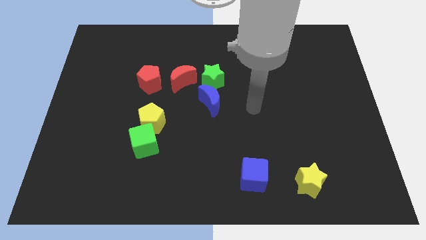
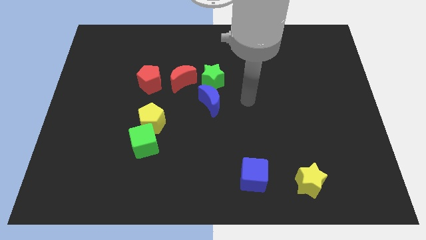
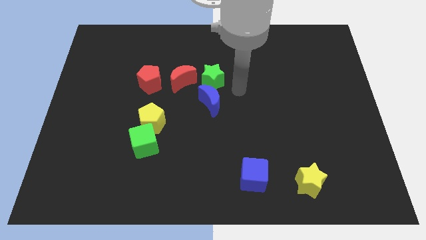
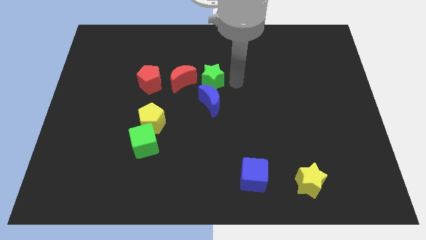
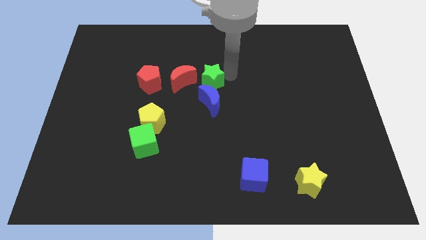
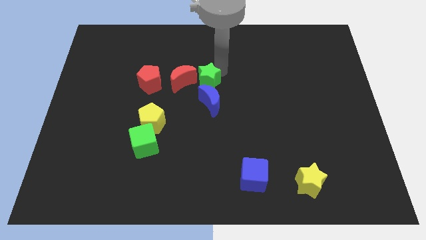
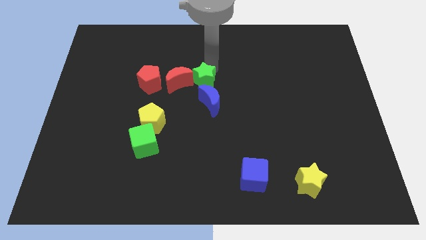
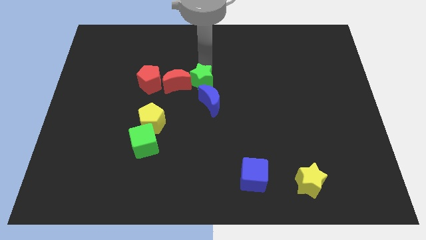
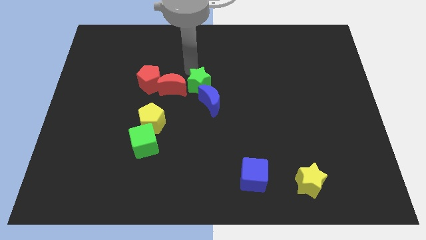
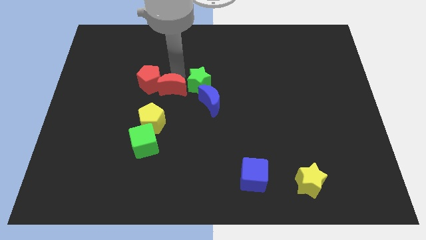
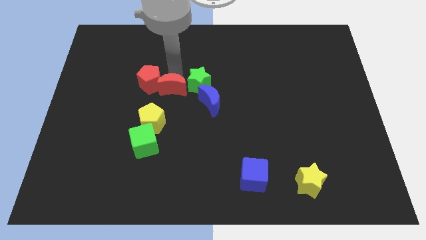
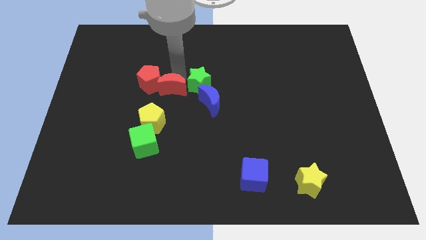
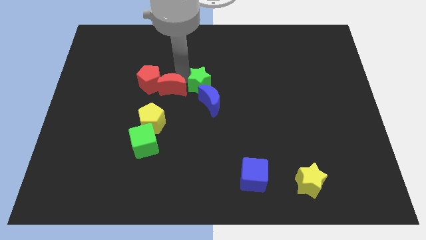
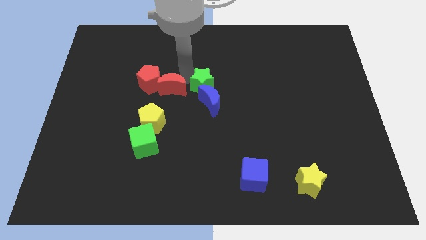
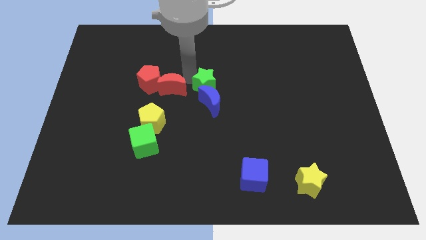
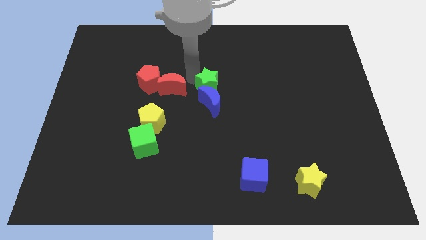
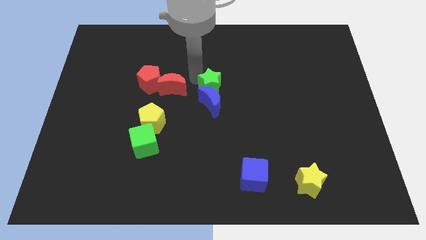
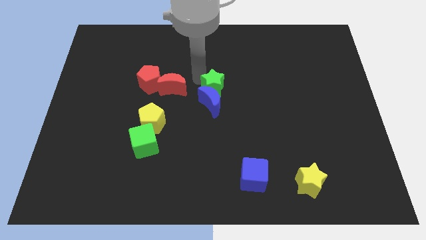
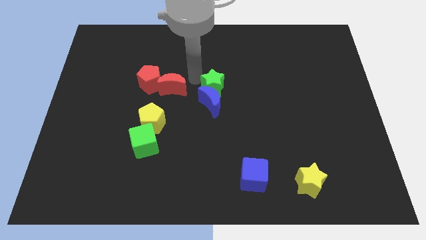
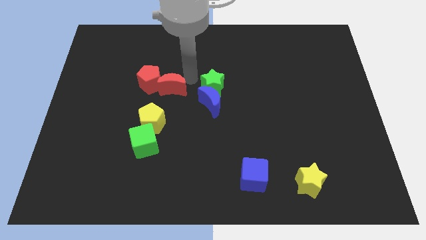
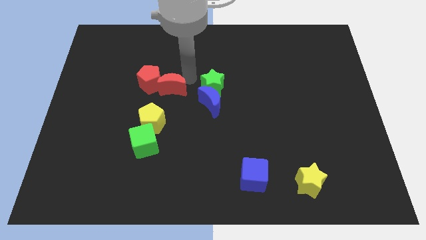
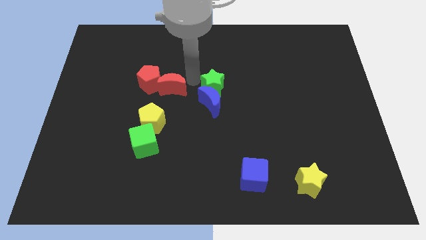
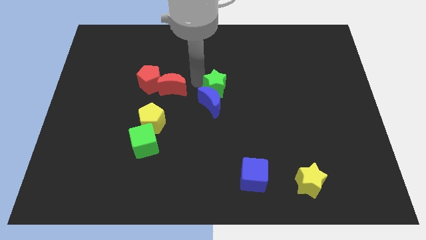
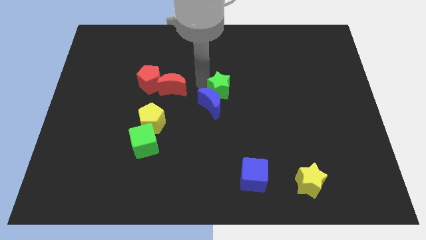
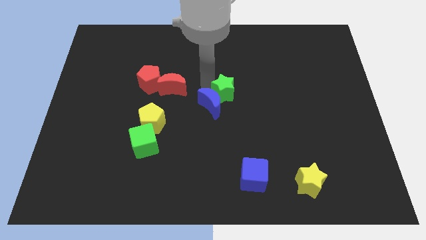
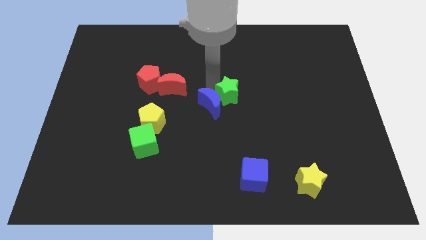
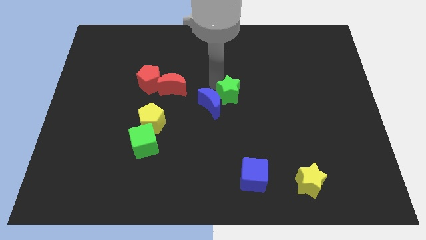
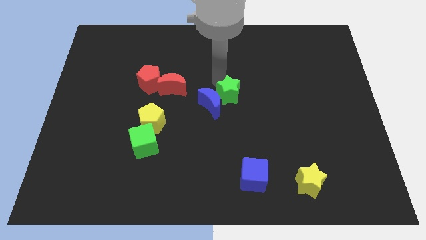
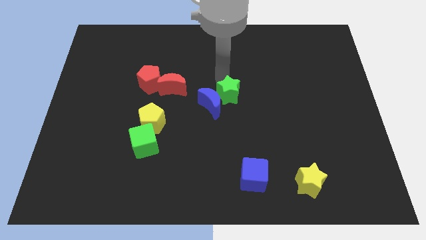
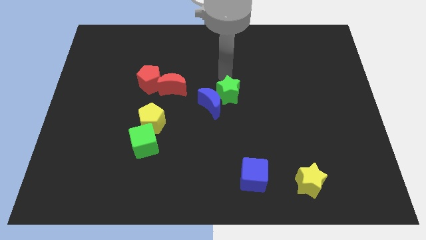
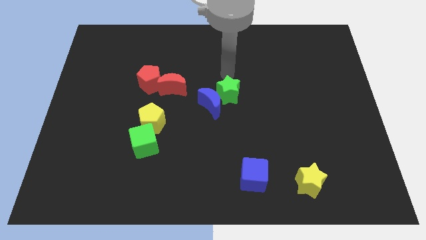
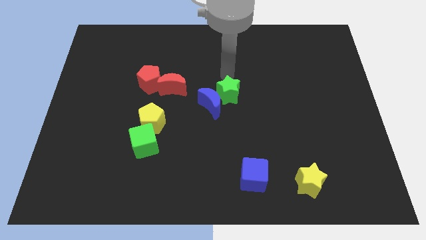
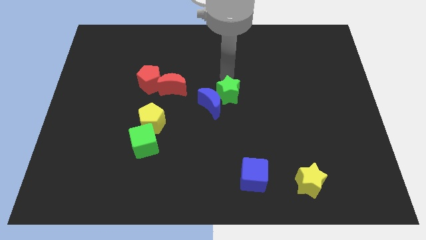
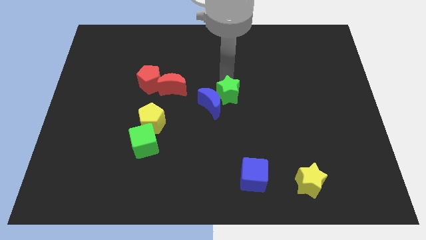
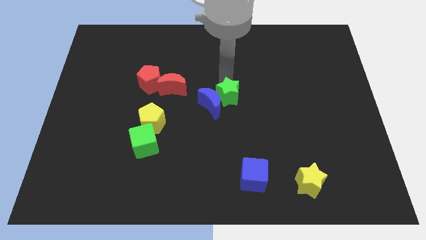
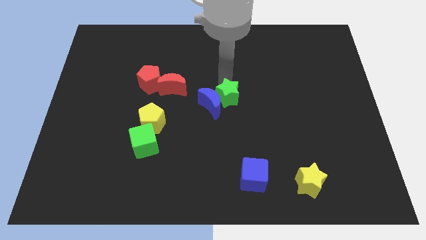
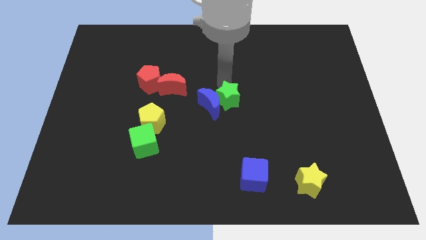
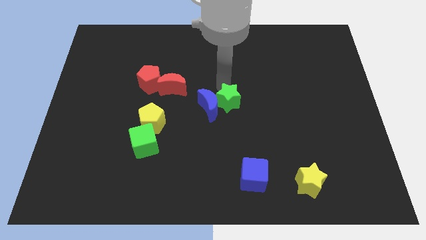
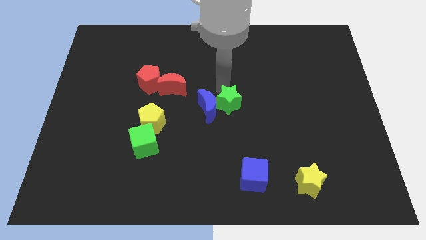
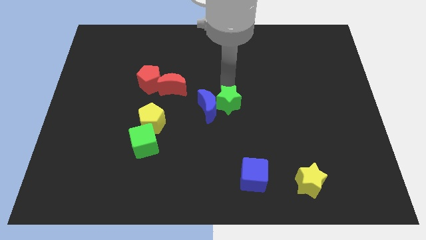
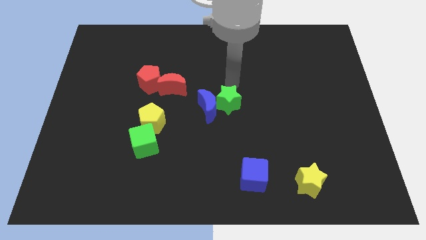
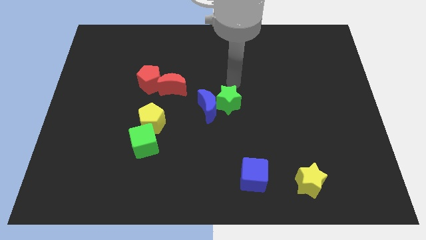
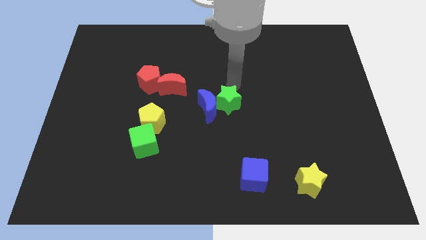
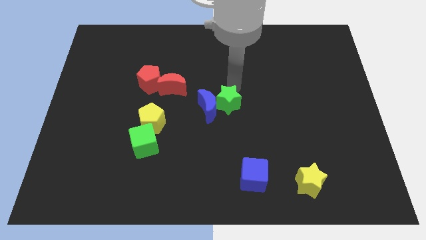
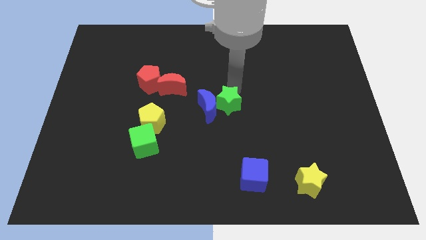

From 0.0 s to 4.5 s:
move the green star a little down

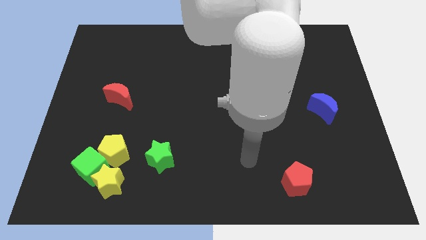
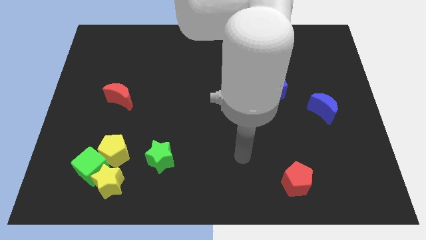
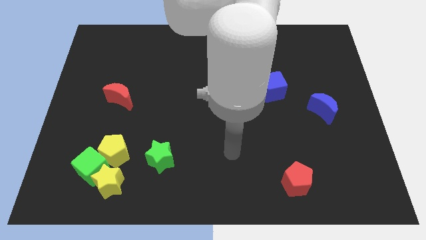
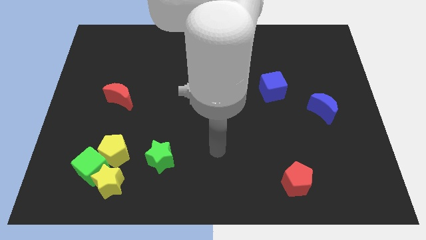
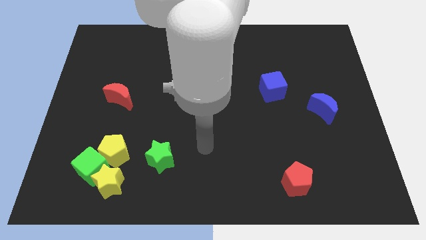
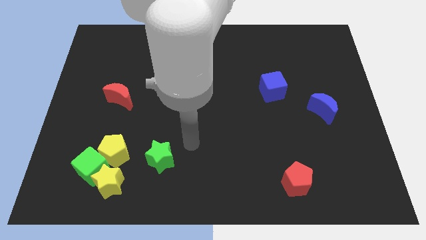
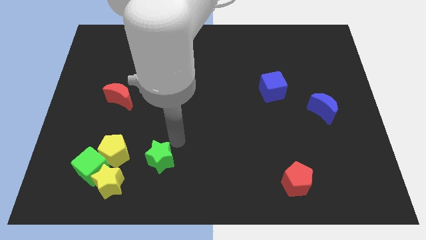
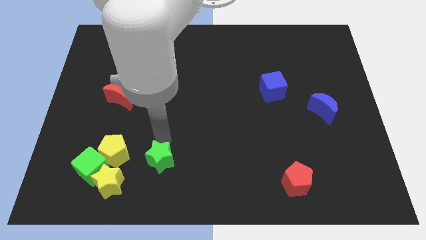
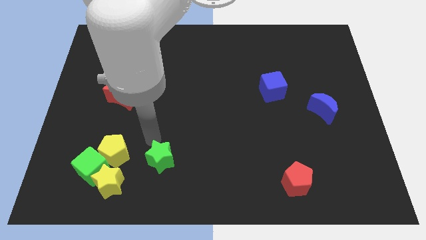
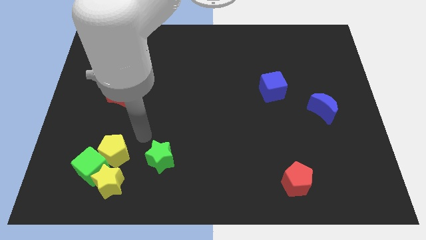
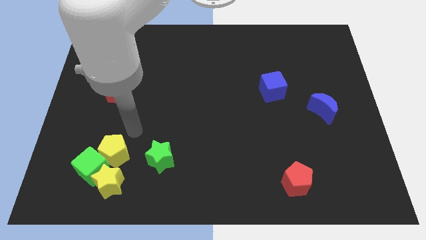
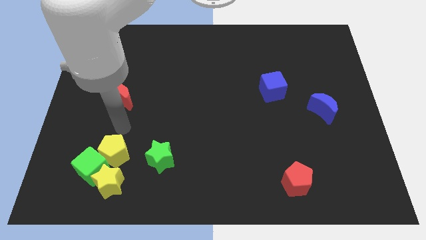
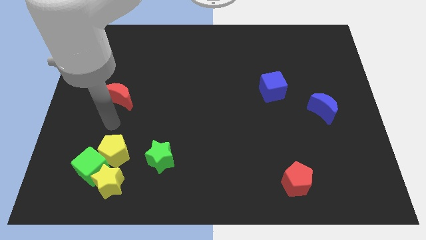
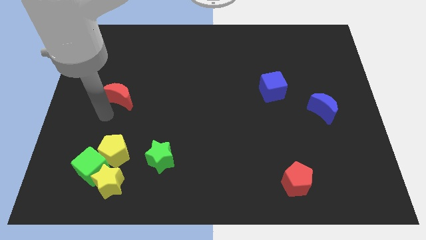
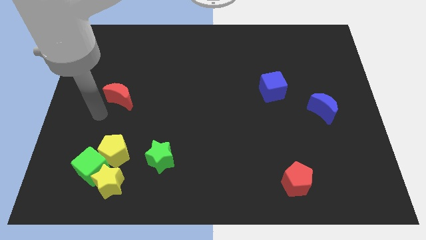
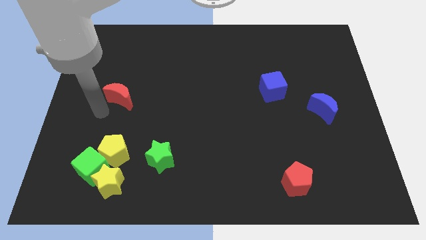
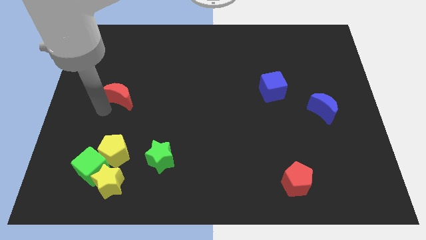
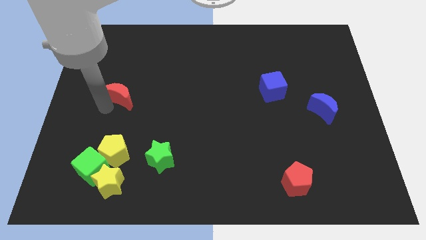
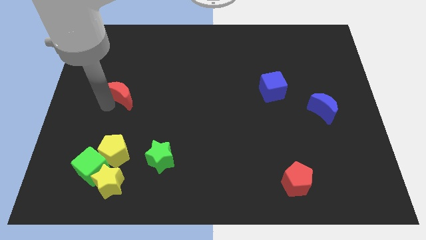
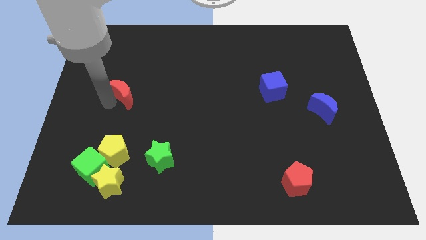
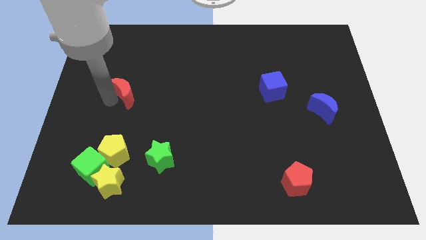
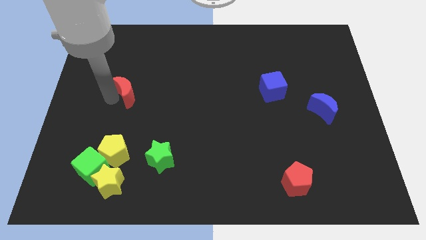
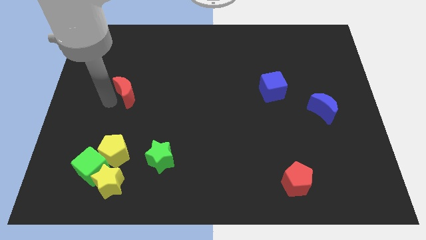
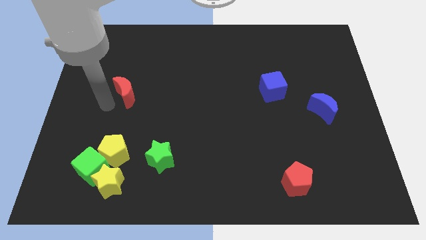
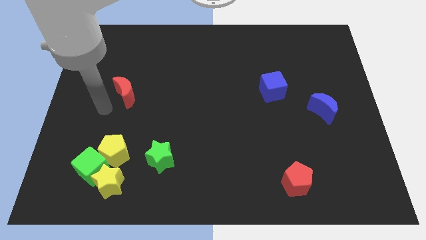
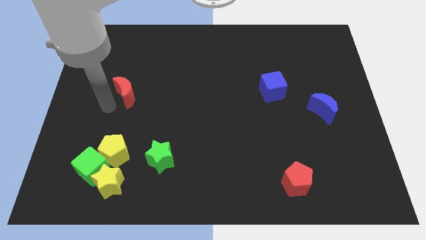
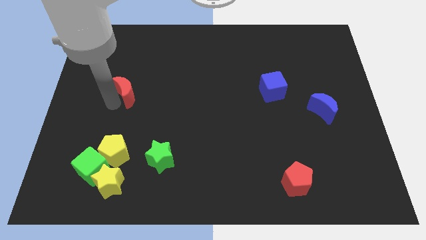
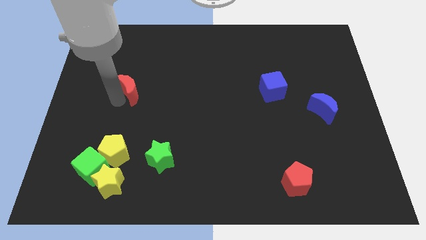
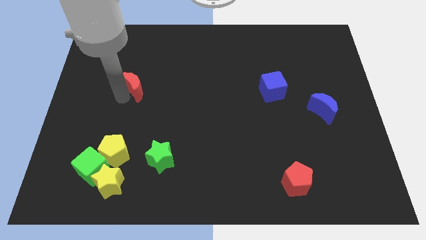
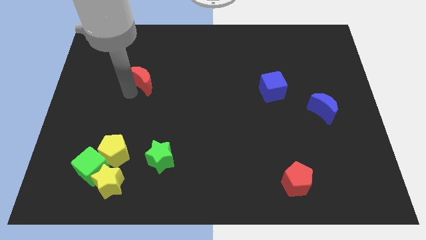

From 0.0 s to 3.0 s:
slightly slide the red moon upwards and then right

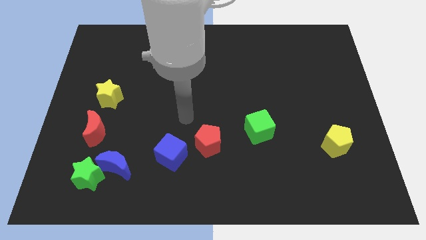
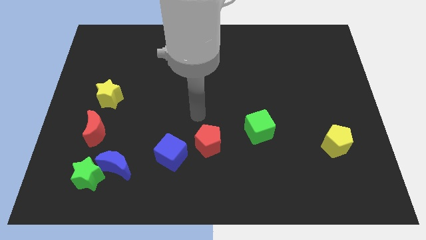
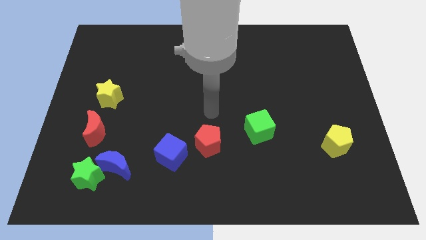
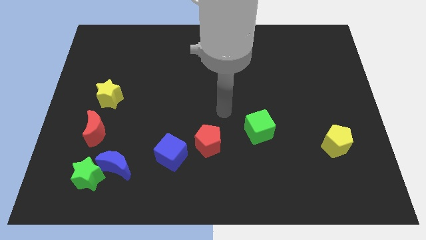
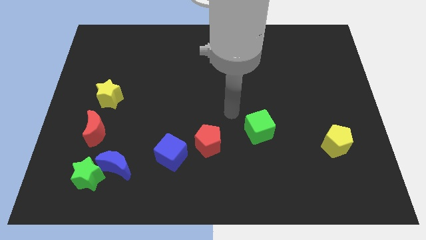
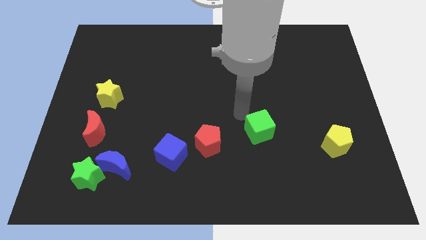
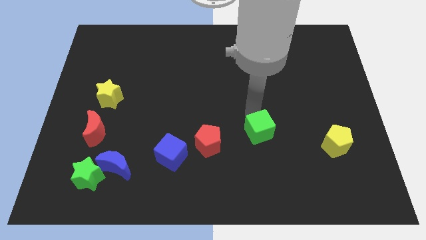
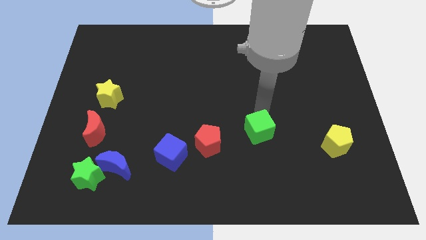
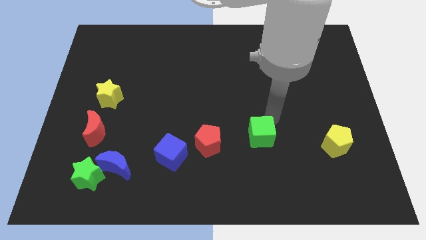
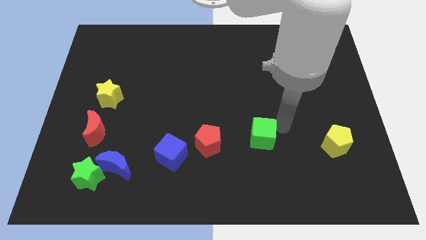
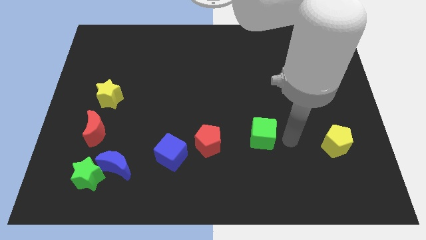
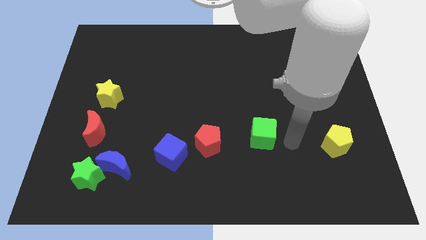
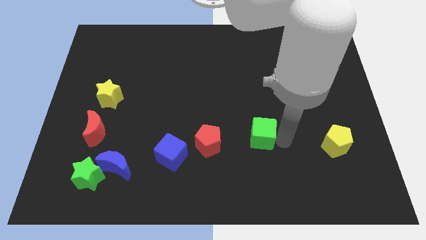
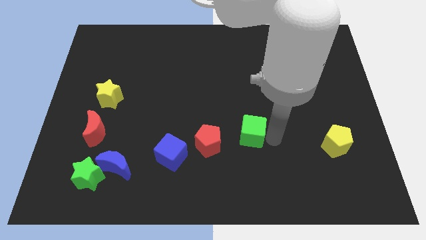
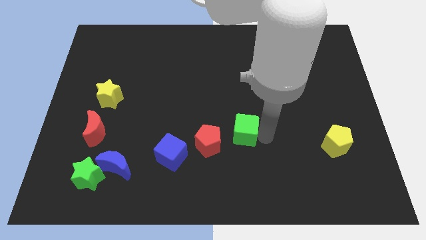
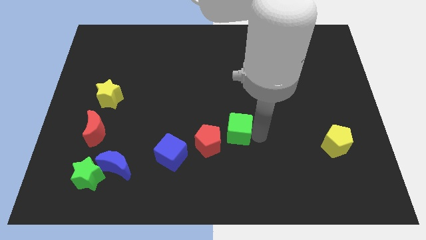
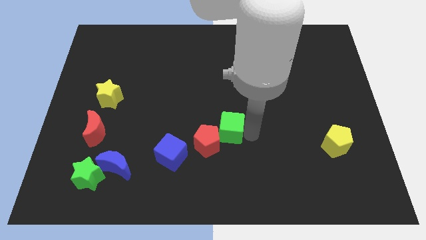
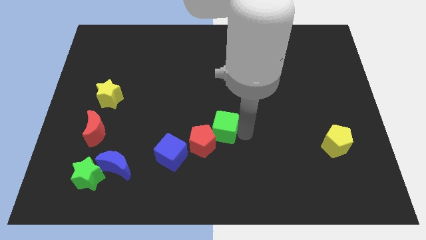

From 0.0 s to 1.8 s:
slide the green cube left a bit
